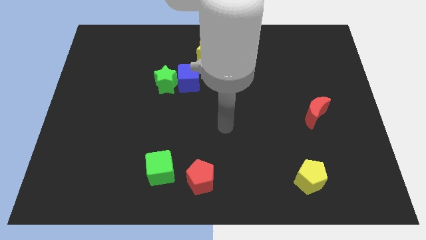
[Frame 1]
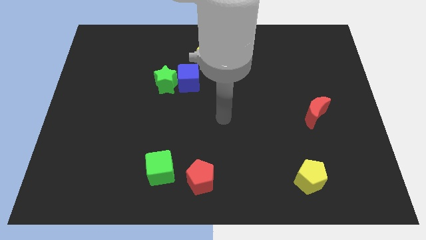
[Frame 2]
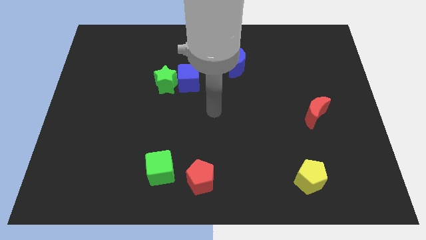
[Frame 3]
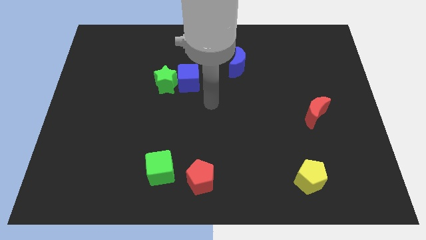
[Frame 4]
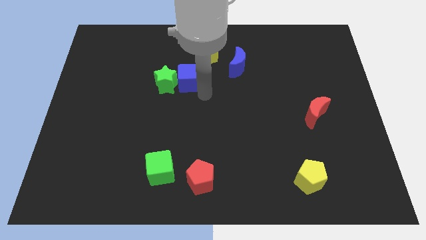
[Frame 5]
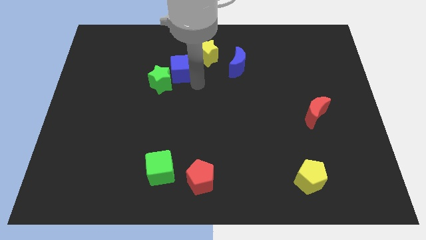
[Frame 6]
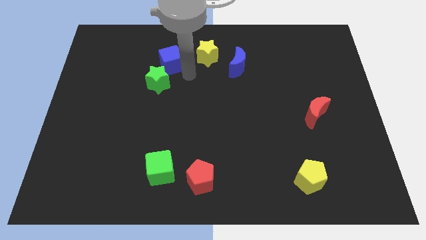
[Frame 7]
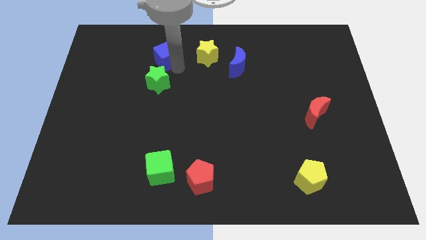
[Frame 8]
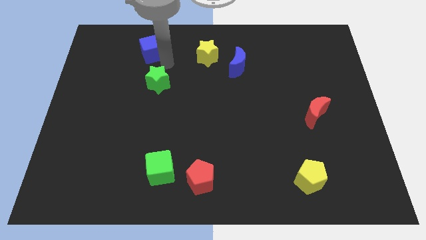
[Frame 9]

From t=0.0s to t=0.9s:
move the green star away from the blue cube

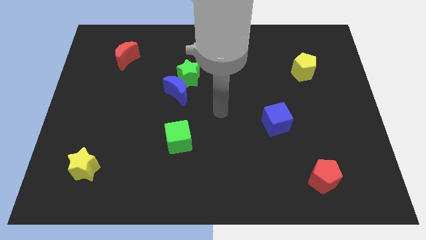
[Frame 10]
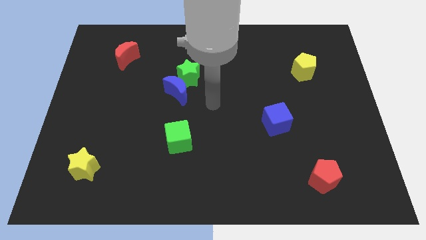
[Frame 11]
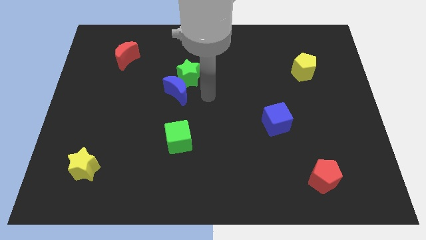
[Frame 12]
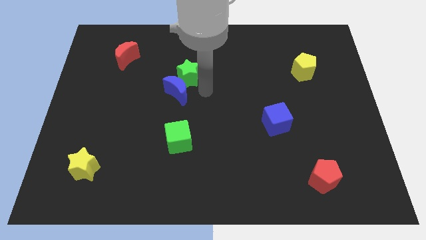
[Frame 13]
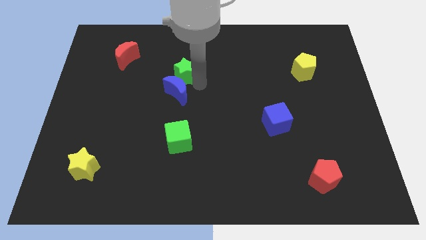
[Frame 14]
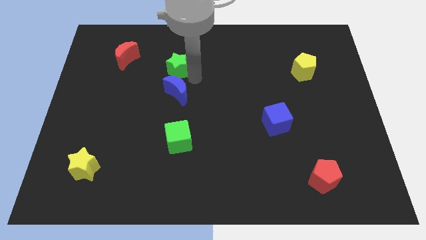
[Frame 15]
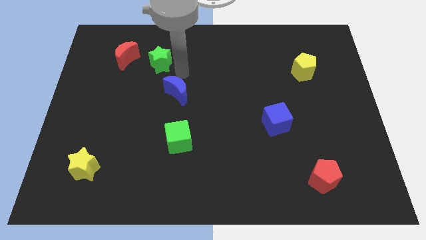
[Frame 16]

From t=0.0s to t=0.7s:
pull the blue moon apart from the green star

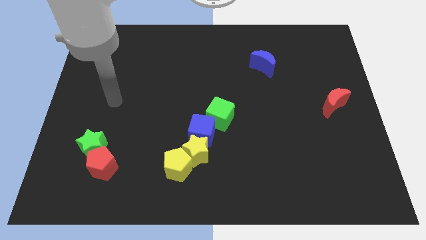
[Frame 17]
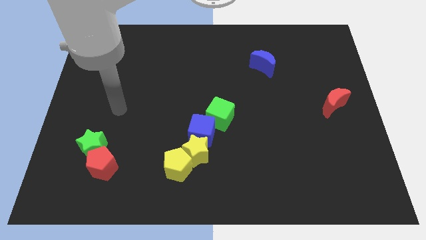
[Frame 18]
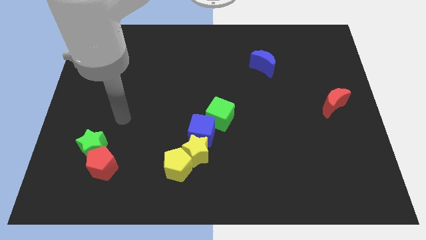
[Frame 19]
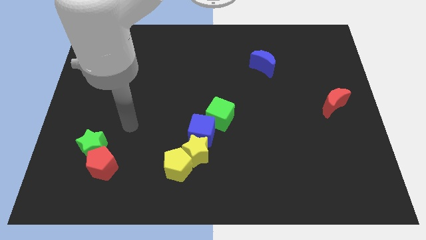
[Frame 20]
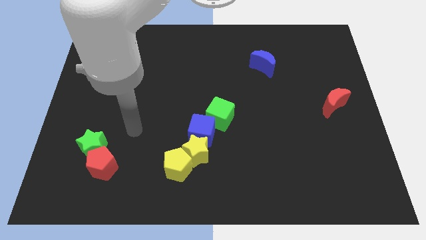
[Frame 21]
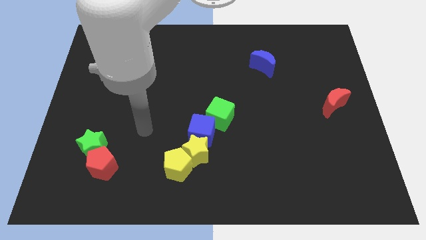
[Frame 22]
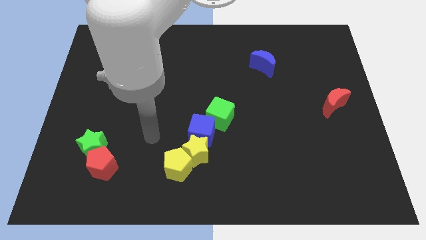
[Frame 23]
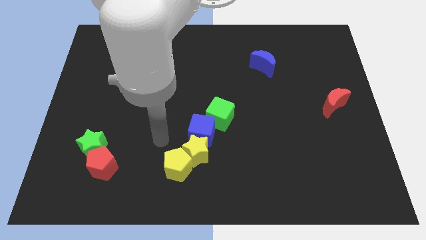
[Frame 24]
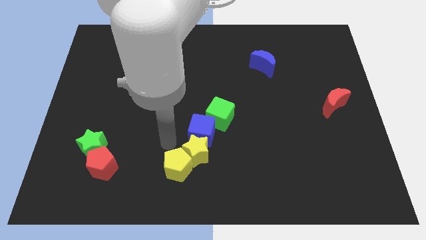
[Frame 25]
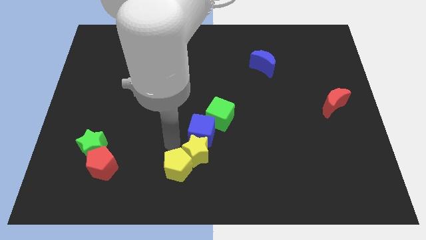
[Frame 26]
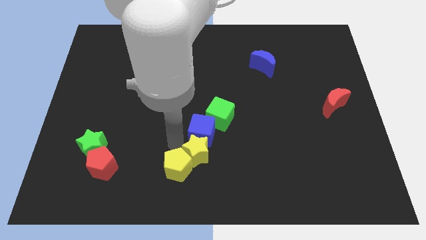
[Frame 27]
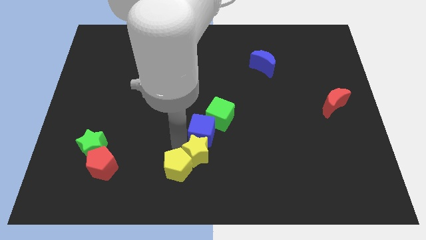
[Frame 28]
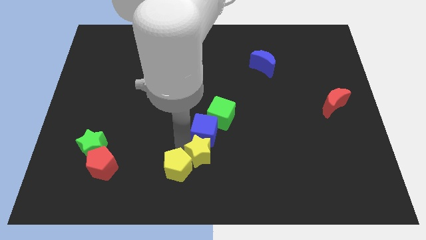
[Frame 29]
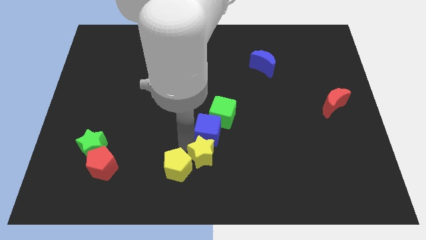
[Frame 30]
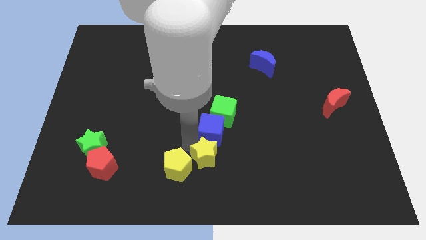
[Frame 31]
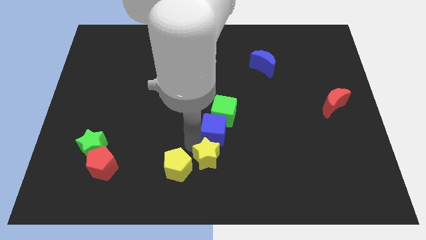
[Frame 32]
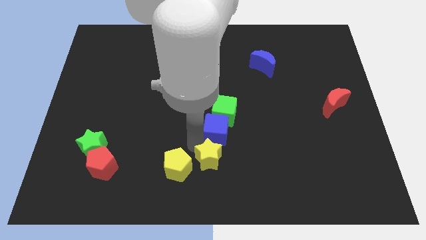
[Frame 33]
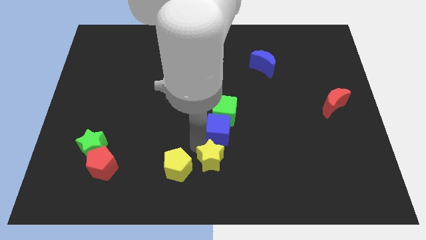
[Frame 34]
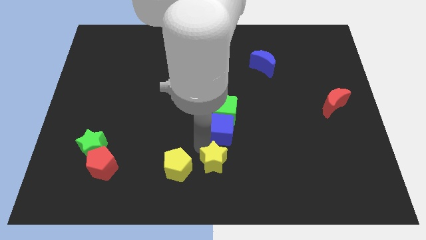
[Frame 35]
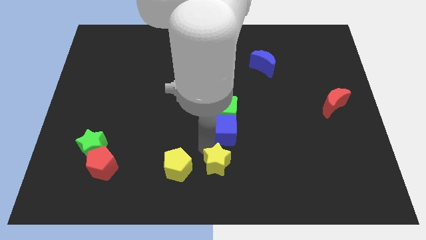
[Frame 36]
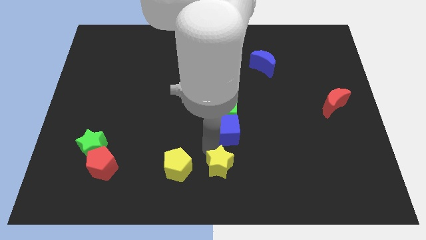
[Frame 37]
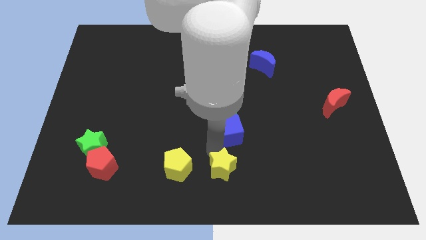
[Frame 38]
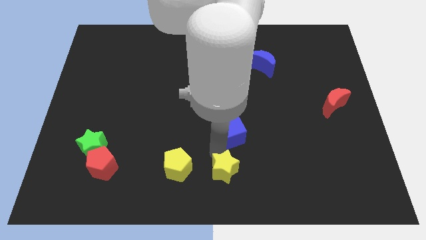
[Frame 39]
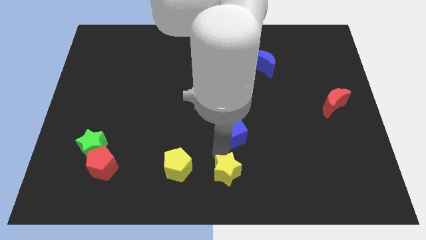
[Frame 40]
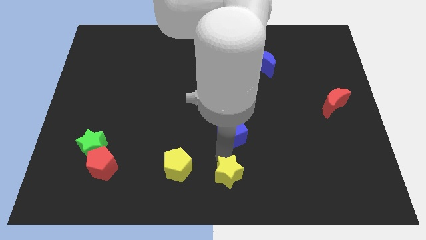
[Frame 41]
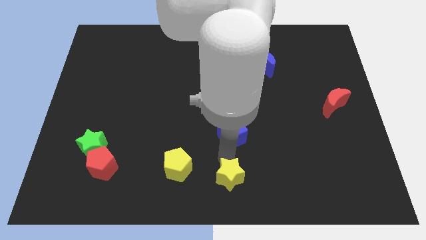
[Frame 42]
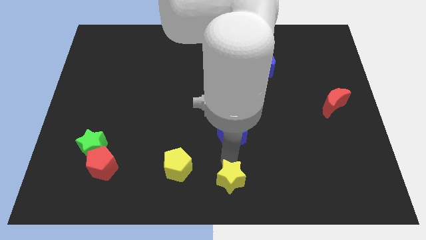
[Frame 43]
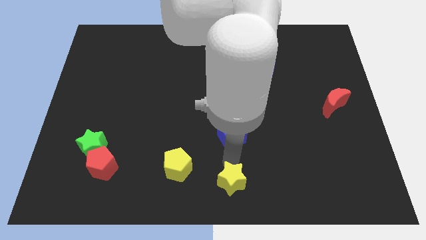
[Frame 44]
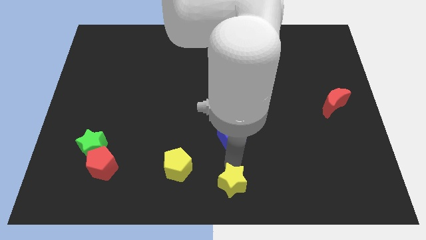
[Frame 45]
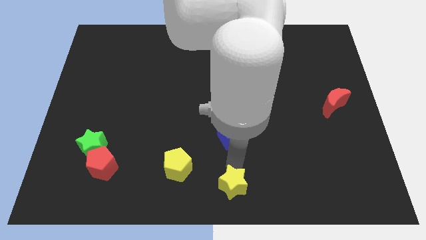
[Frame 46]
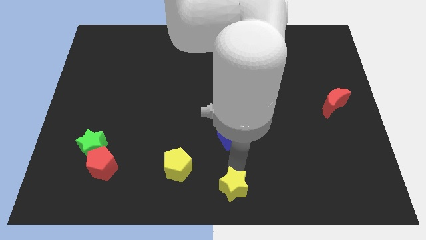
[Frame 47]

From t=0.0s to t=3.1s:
pull the yellow star apart from the blue cube and yellow pentagon

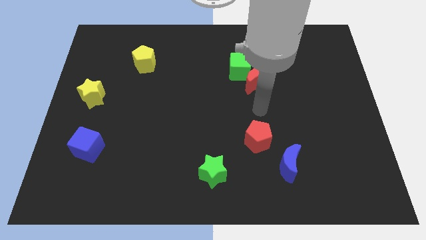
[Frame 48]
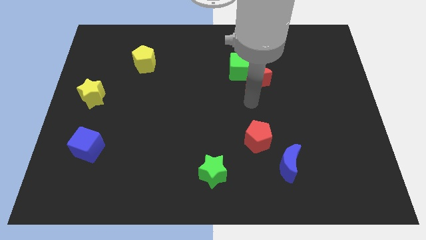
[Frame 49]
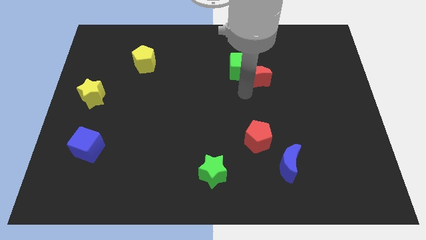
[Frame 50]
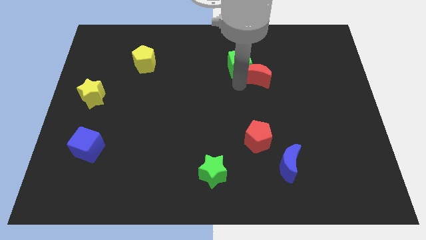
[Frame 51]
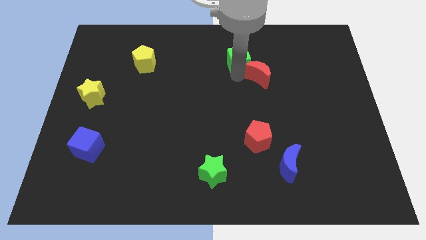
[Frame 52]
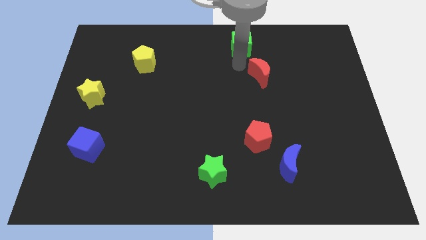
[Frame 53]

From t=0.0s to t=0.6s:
pull the red moon apart from the green cube

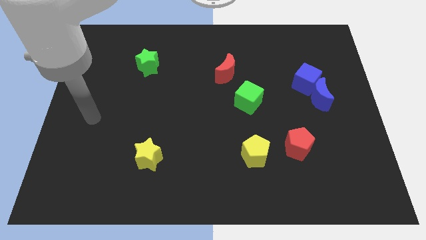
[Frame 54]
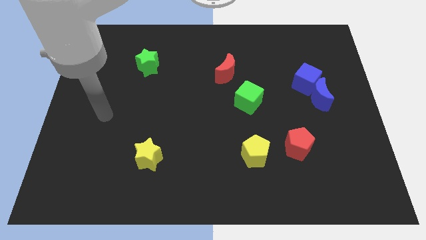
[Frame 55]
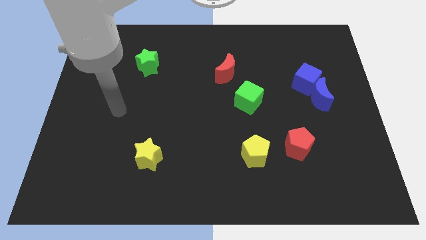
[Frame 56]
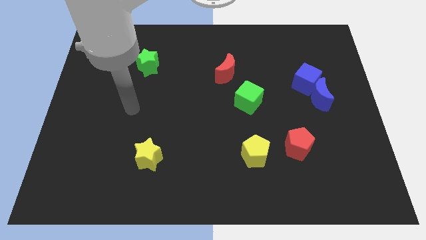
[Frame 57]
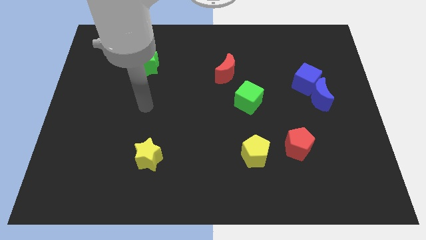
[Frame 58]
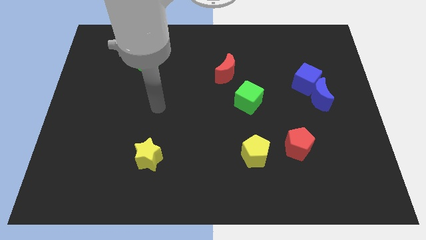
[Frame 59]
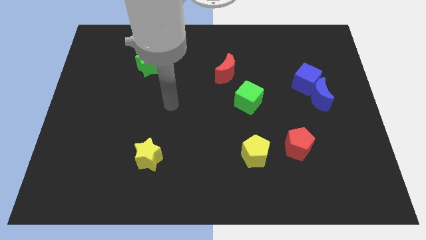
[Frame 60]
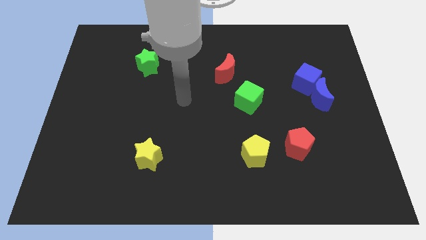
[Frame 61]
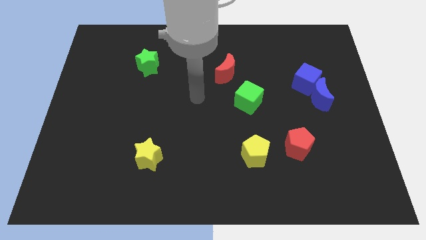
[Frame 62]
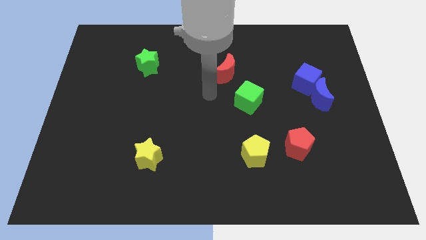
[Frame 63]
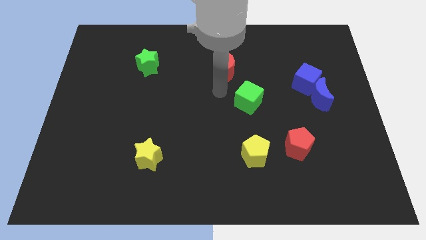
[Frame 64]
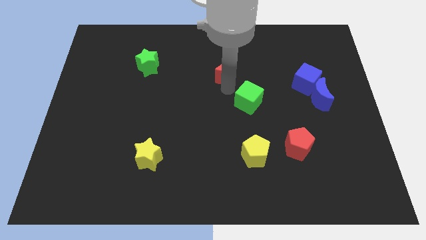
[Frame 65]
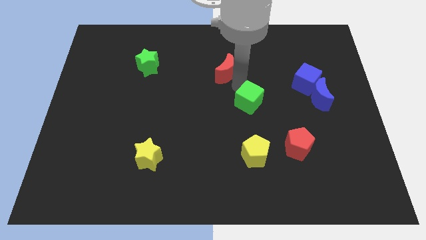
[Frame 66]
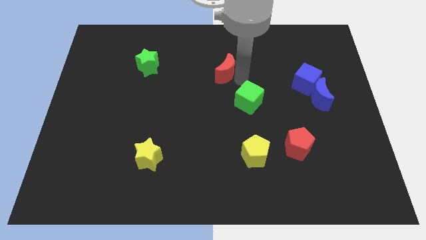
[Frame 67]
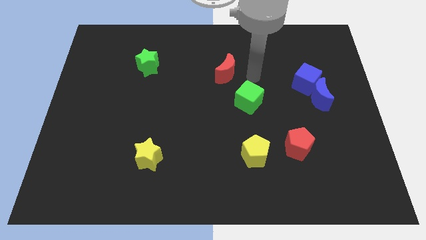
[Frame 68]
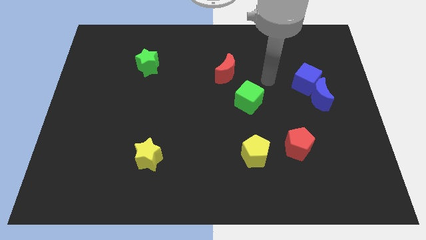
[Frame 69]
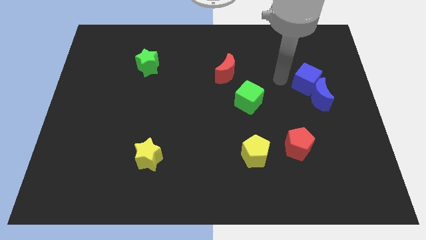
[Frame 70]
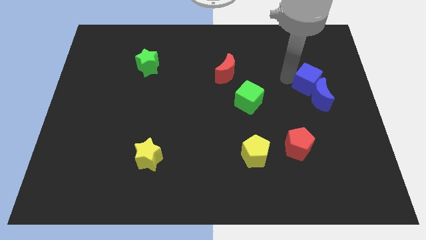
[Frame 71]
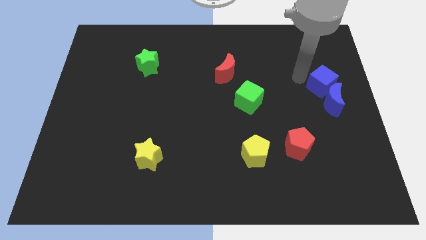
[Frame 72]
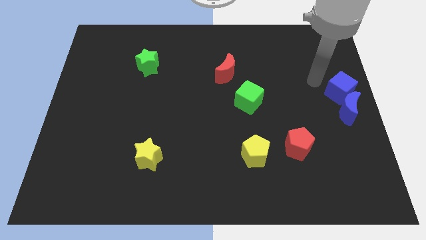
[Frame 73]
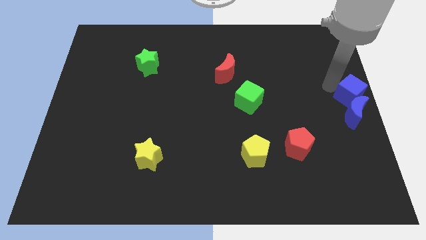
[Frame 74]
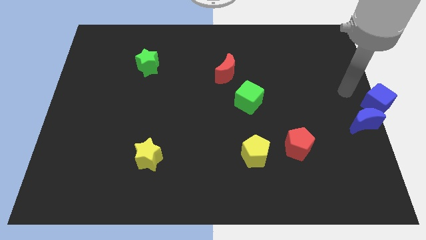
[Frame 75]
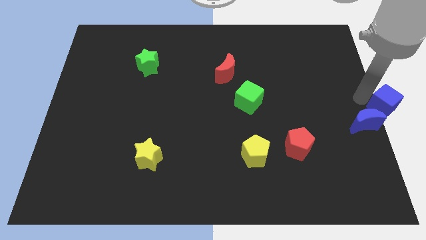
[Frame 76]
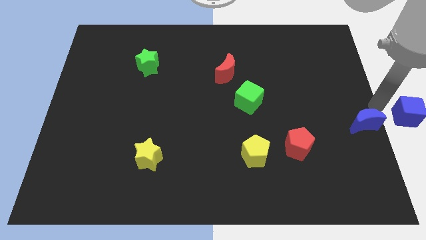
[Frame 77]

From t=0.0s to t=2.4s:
move the blue moon away from the blue cube

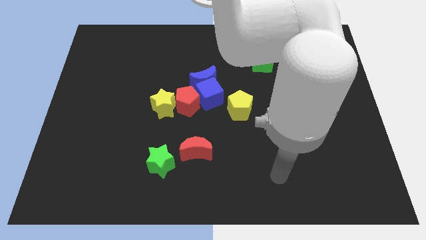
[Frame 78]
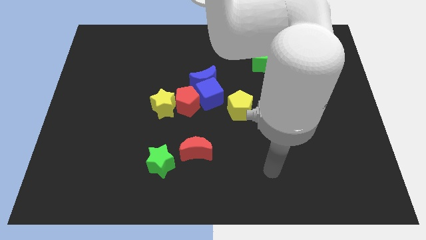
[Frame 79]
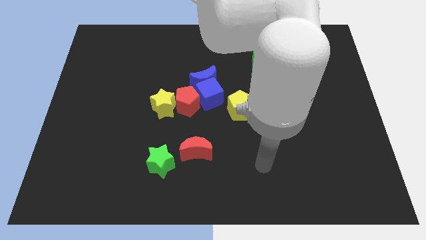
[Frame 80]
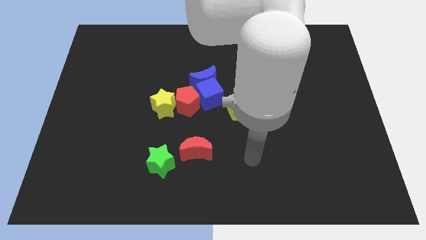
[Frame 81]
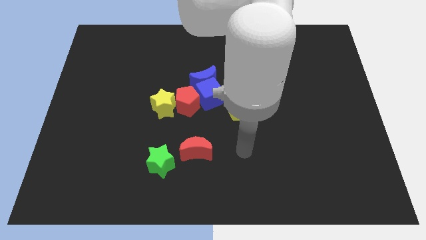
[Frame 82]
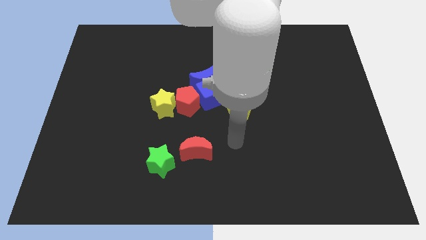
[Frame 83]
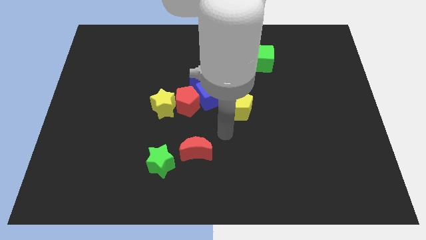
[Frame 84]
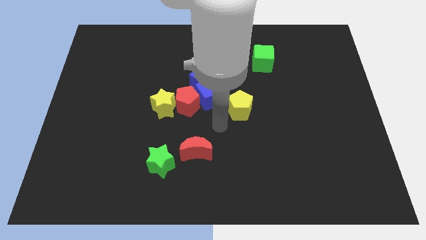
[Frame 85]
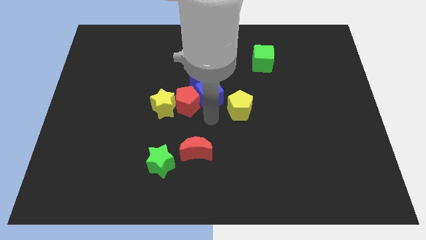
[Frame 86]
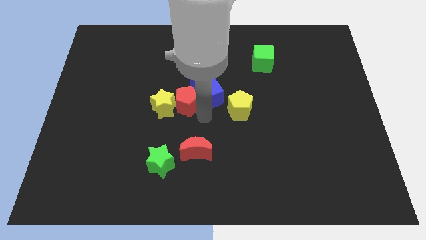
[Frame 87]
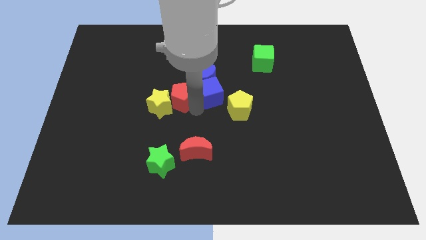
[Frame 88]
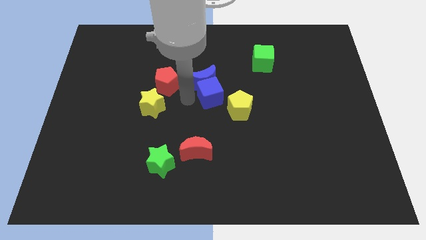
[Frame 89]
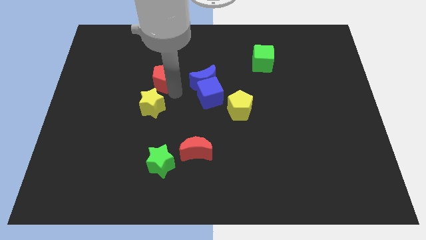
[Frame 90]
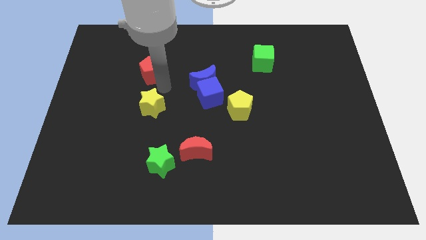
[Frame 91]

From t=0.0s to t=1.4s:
move the yellow star away from the red pentagon

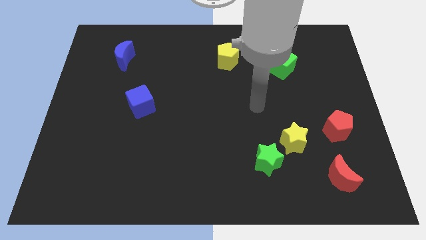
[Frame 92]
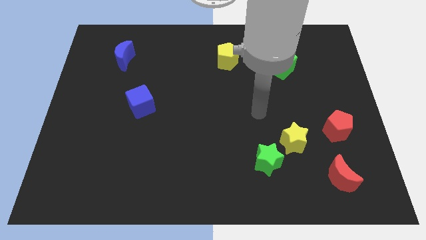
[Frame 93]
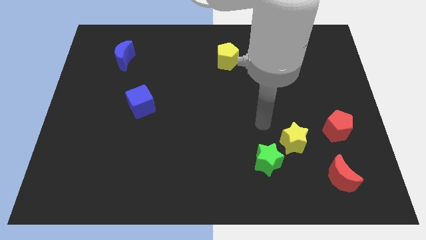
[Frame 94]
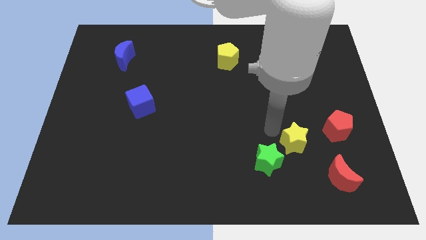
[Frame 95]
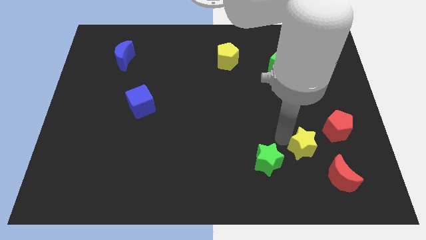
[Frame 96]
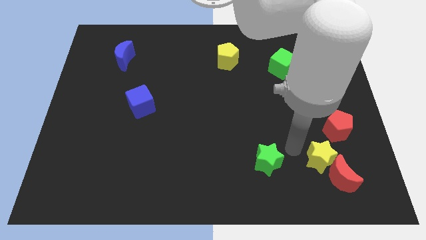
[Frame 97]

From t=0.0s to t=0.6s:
separate the green star from the yellow star
